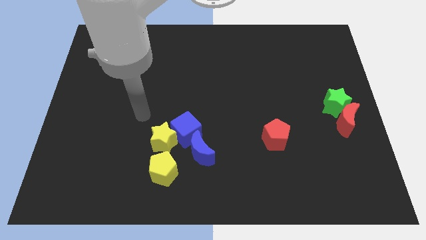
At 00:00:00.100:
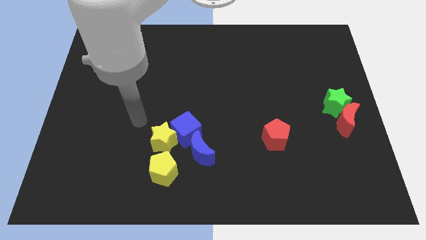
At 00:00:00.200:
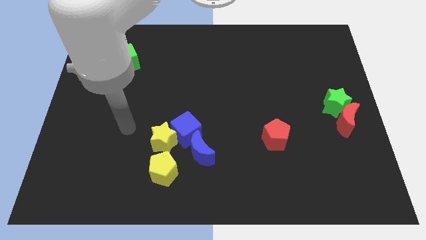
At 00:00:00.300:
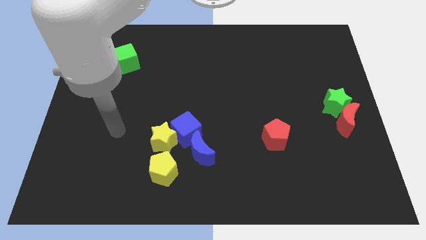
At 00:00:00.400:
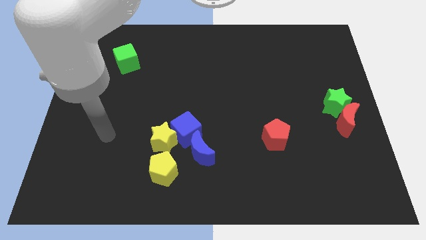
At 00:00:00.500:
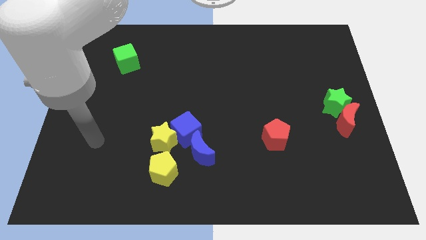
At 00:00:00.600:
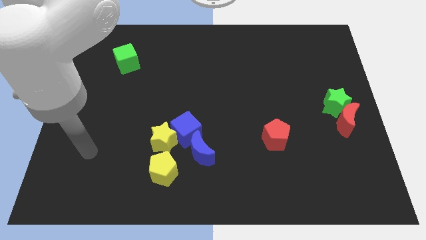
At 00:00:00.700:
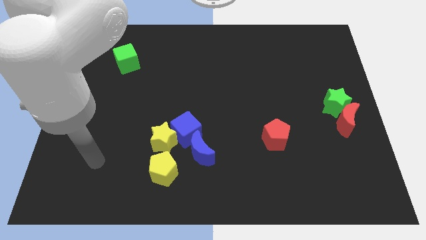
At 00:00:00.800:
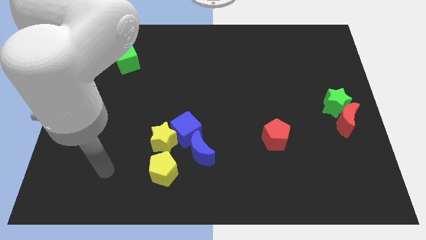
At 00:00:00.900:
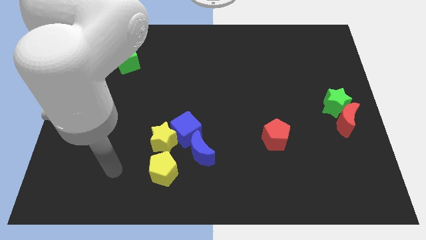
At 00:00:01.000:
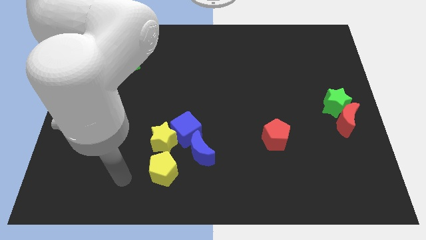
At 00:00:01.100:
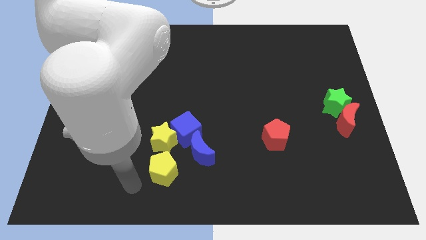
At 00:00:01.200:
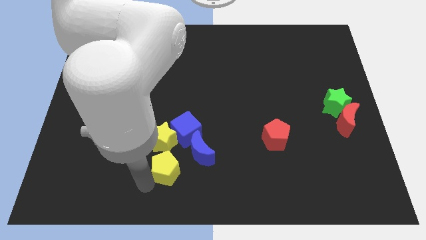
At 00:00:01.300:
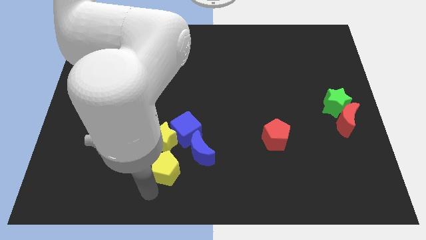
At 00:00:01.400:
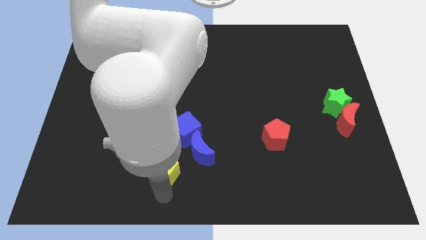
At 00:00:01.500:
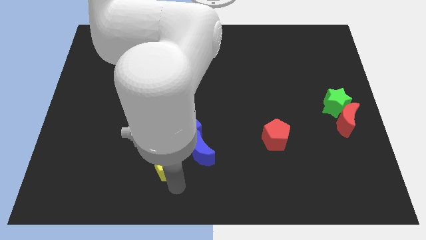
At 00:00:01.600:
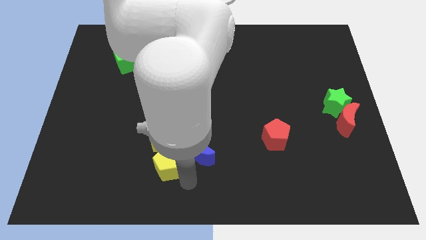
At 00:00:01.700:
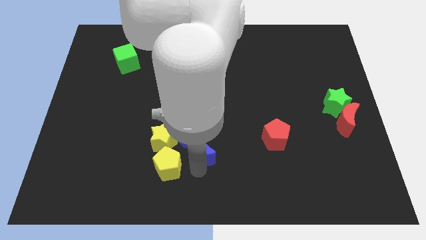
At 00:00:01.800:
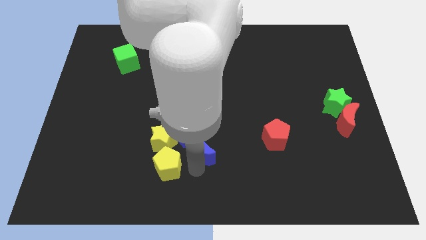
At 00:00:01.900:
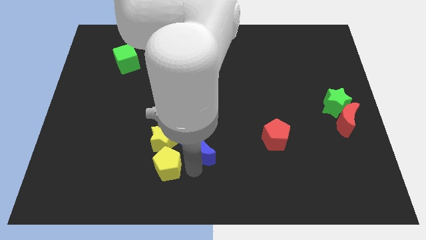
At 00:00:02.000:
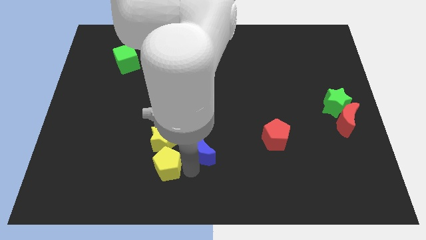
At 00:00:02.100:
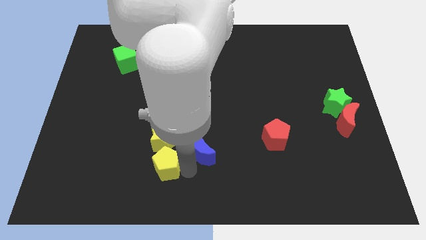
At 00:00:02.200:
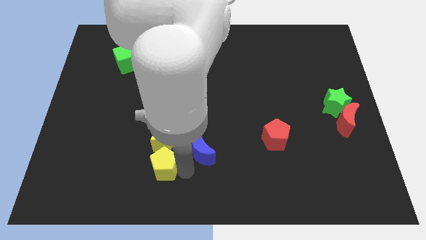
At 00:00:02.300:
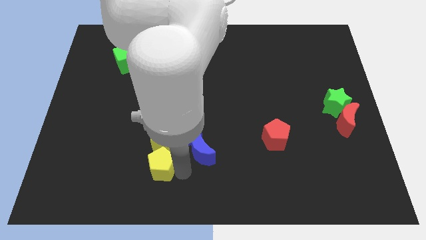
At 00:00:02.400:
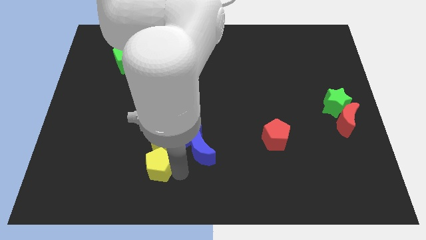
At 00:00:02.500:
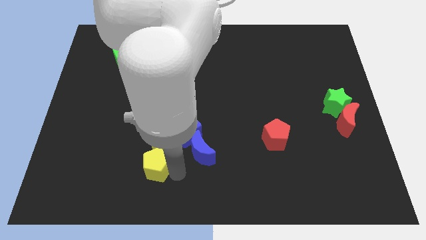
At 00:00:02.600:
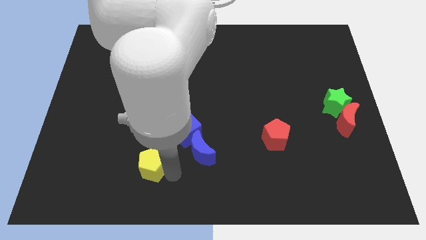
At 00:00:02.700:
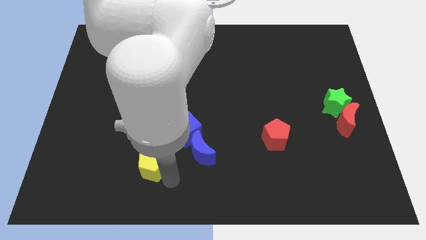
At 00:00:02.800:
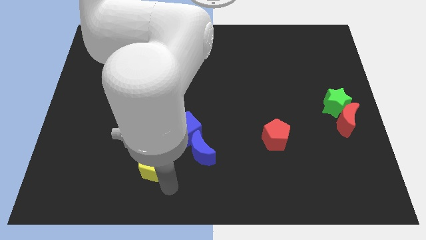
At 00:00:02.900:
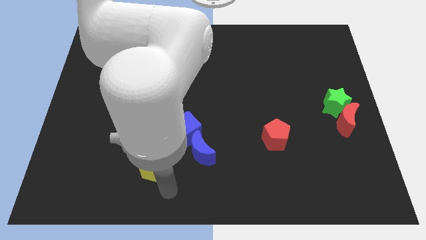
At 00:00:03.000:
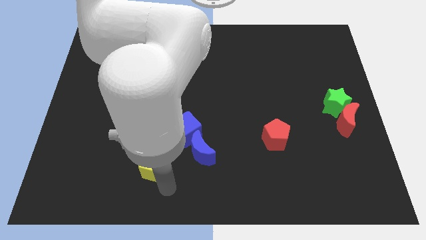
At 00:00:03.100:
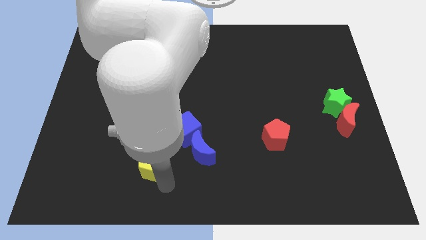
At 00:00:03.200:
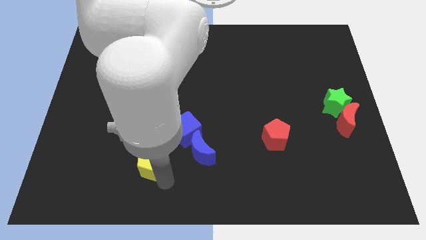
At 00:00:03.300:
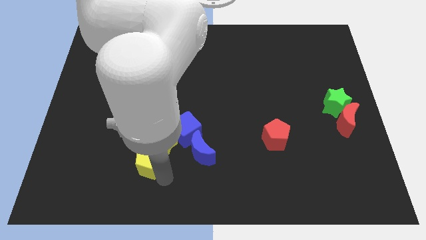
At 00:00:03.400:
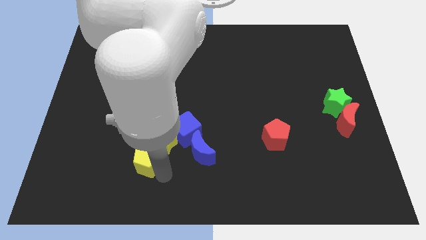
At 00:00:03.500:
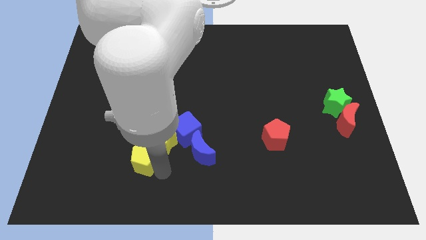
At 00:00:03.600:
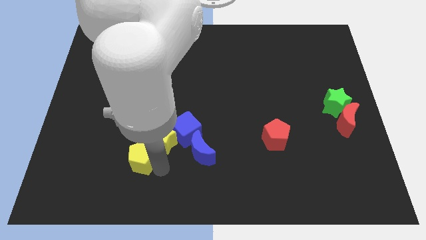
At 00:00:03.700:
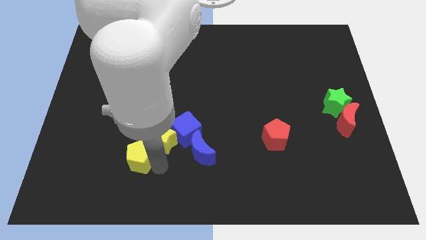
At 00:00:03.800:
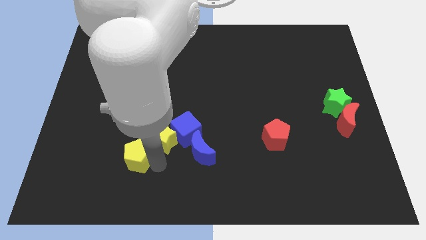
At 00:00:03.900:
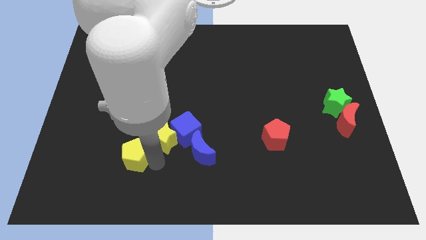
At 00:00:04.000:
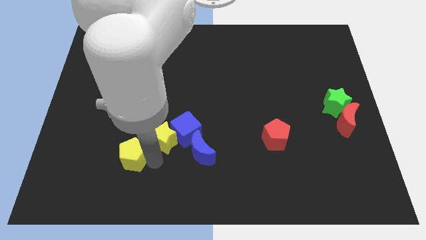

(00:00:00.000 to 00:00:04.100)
push the yellow pentagon upwards and left diagonally a bit

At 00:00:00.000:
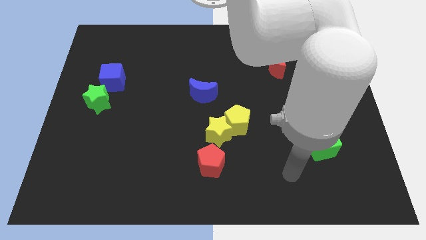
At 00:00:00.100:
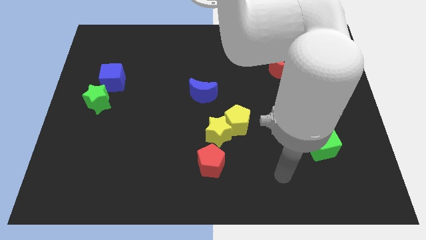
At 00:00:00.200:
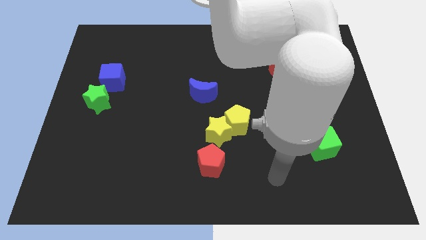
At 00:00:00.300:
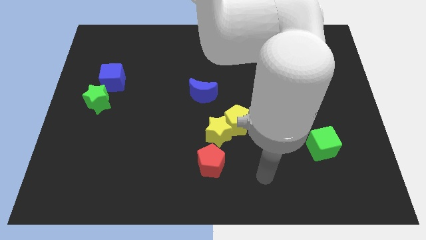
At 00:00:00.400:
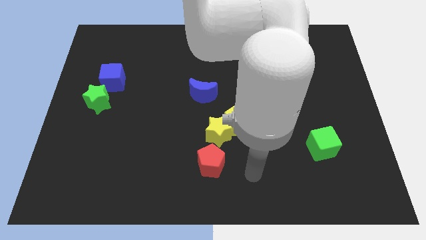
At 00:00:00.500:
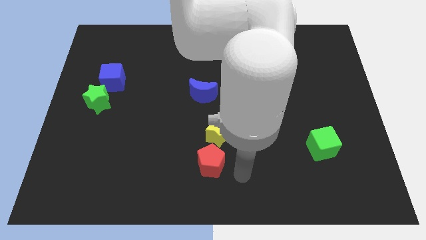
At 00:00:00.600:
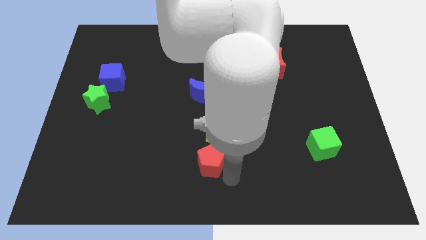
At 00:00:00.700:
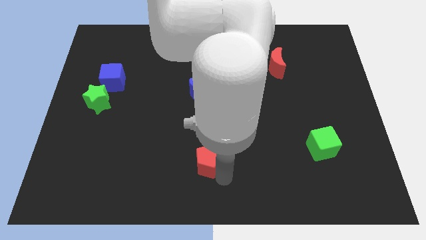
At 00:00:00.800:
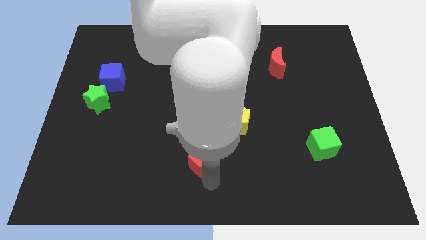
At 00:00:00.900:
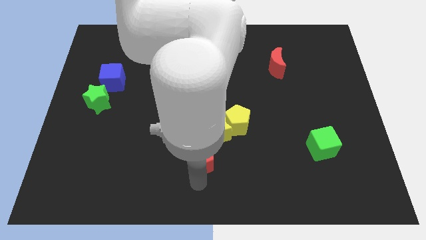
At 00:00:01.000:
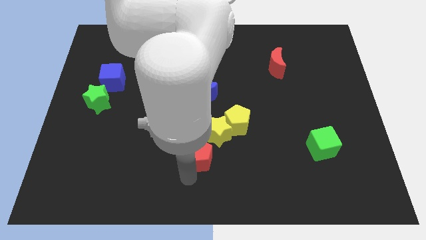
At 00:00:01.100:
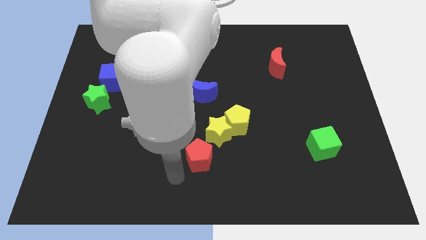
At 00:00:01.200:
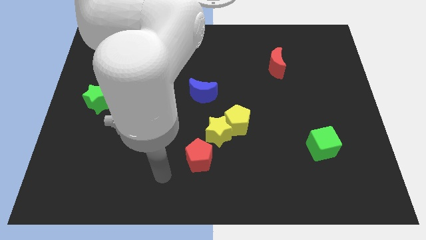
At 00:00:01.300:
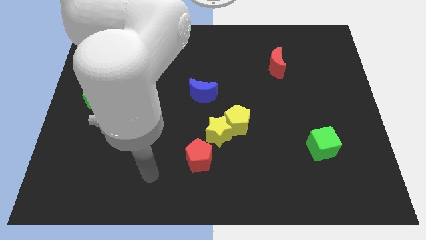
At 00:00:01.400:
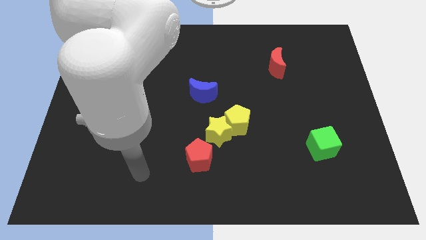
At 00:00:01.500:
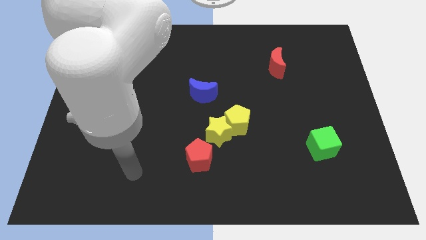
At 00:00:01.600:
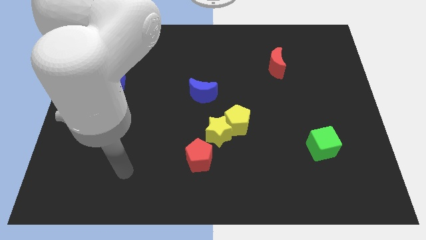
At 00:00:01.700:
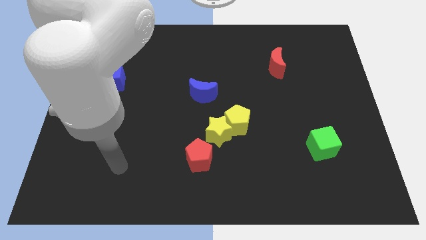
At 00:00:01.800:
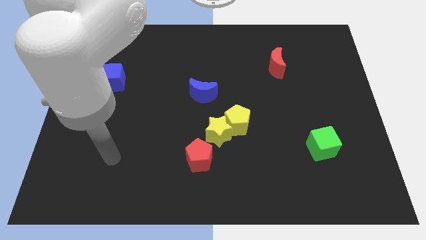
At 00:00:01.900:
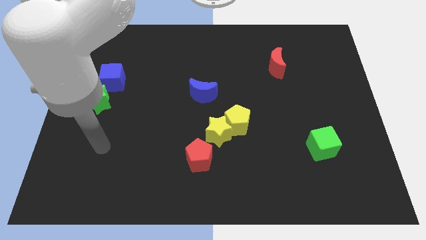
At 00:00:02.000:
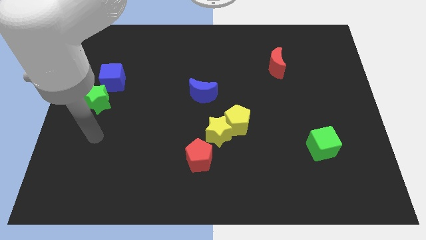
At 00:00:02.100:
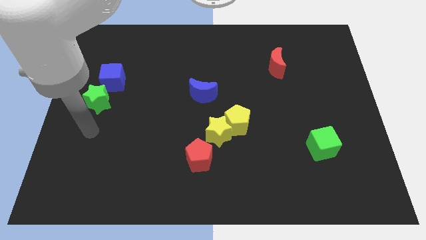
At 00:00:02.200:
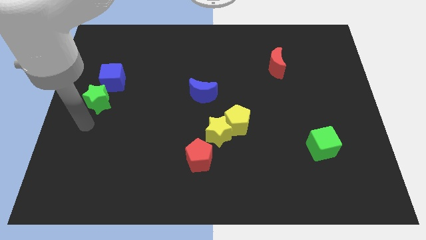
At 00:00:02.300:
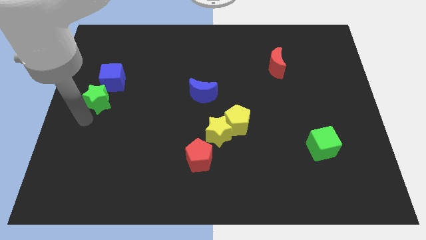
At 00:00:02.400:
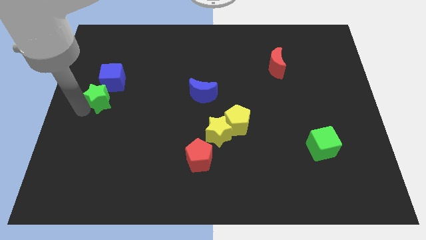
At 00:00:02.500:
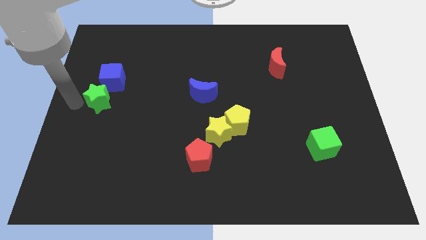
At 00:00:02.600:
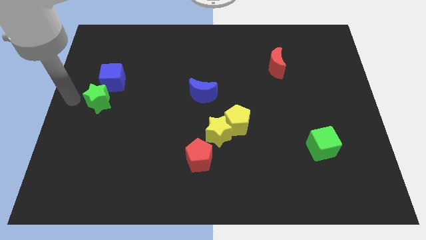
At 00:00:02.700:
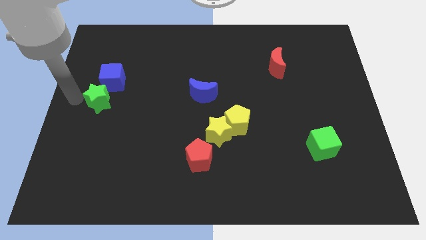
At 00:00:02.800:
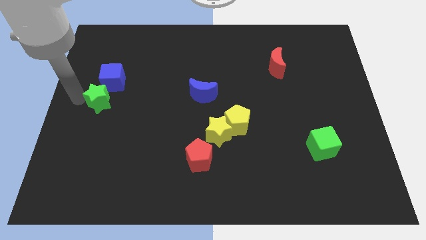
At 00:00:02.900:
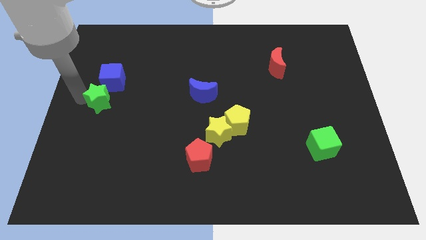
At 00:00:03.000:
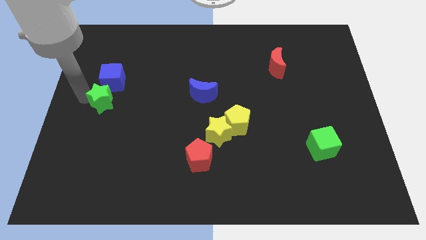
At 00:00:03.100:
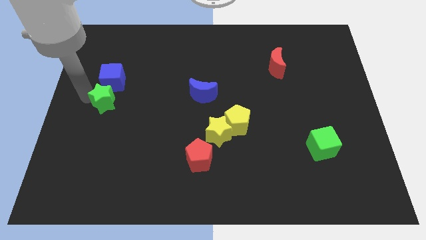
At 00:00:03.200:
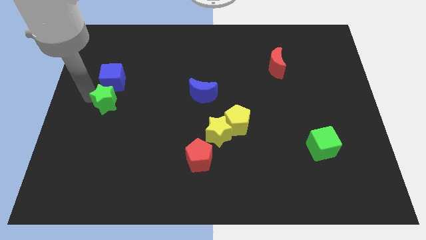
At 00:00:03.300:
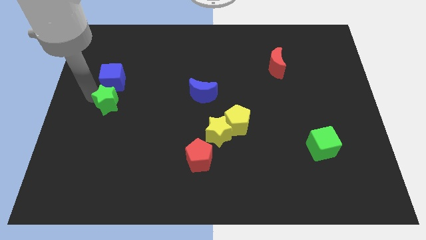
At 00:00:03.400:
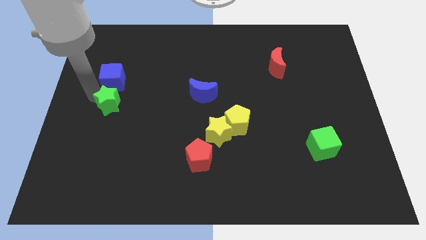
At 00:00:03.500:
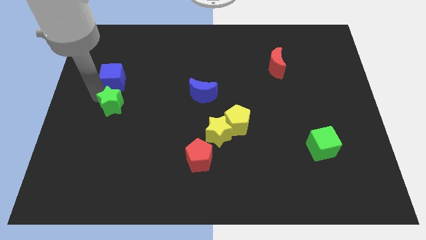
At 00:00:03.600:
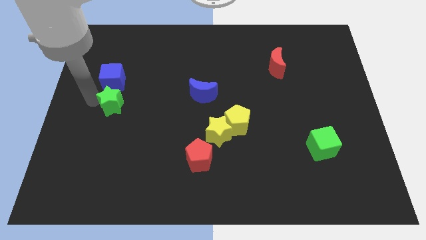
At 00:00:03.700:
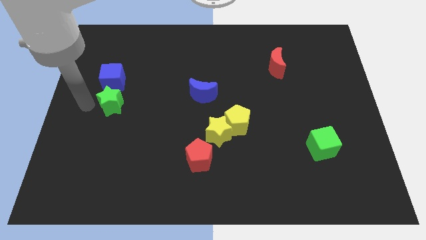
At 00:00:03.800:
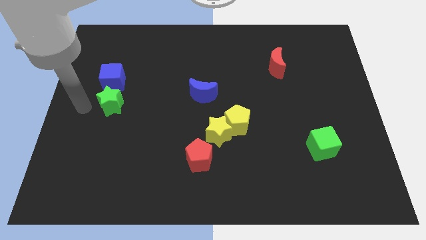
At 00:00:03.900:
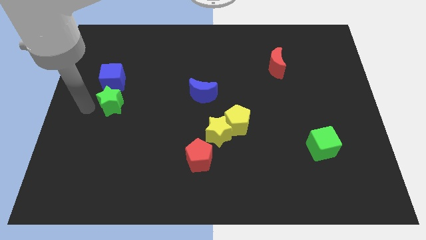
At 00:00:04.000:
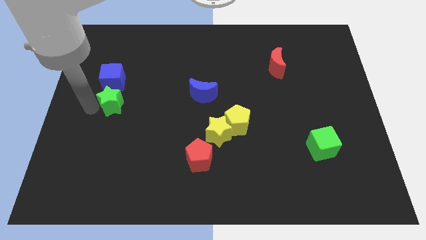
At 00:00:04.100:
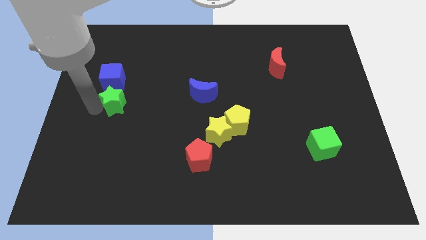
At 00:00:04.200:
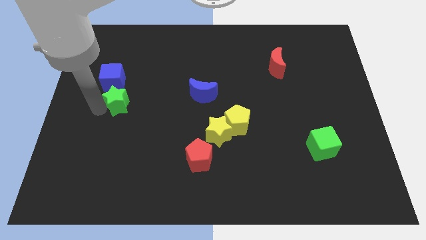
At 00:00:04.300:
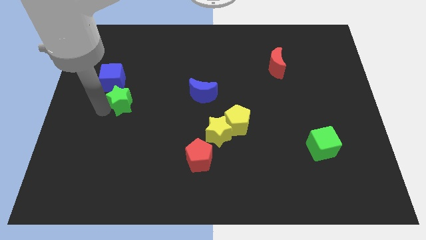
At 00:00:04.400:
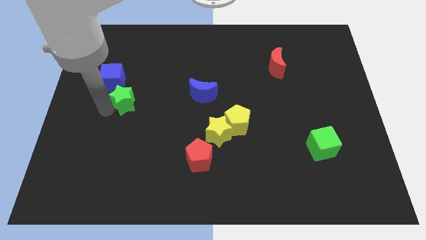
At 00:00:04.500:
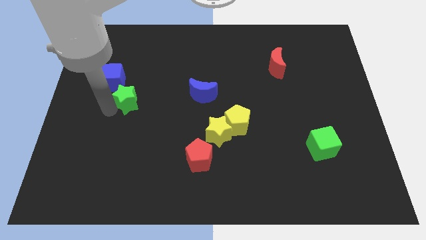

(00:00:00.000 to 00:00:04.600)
move the green star a little bit right
